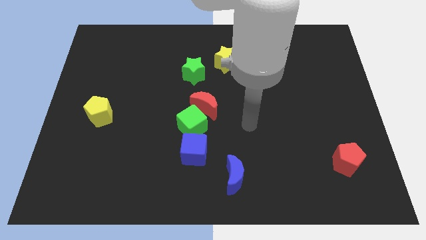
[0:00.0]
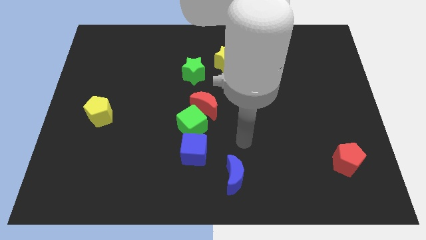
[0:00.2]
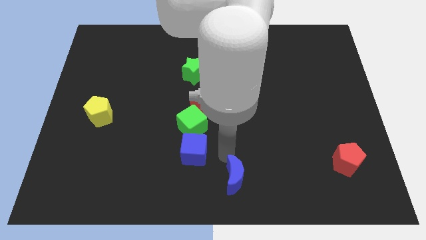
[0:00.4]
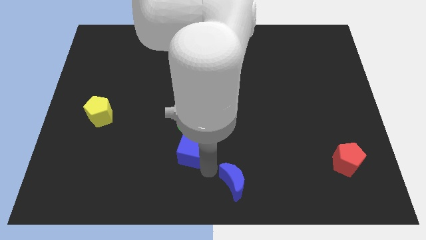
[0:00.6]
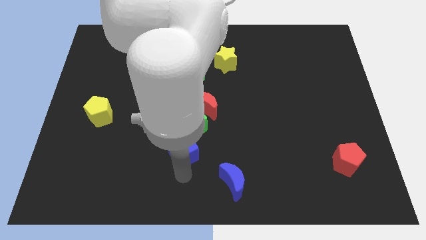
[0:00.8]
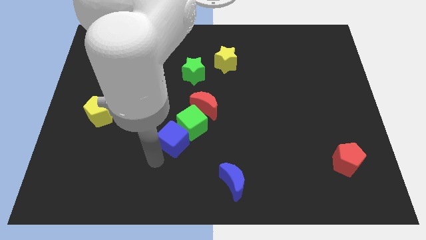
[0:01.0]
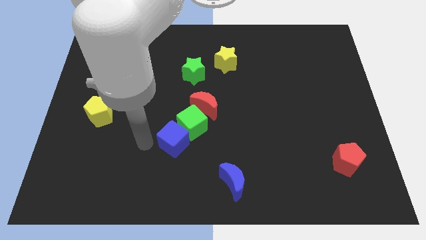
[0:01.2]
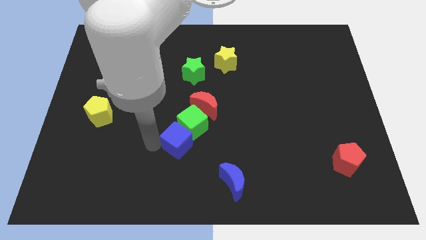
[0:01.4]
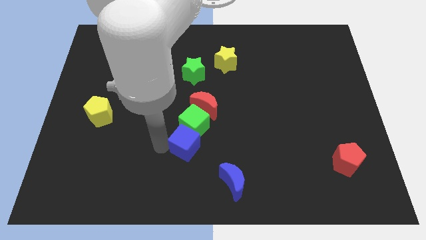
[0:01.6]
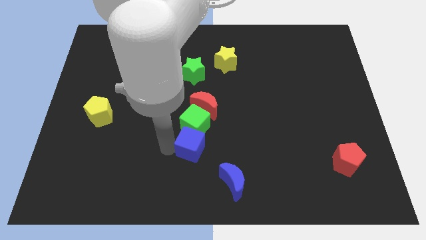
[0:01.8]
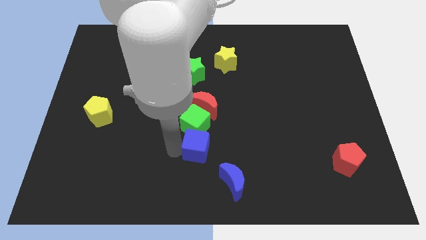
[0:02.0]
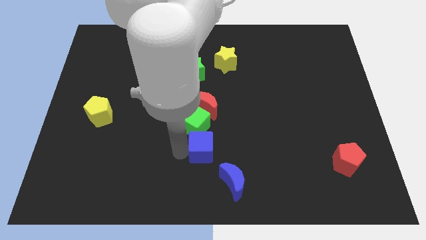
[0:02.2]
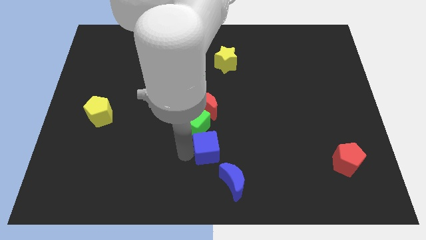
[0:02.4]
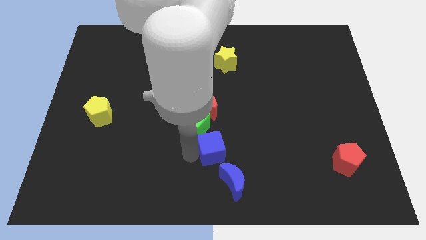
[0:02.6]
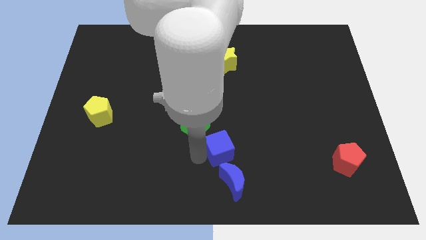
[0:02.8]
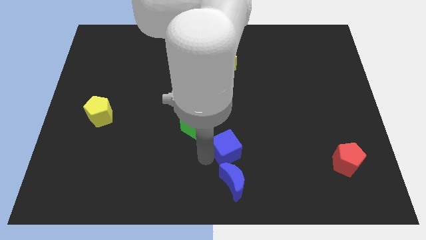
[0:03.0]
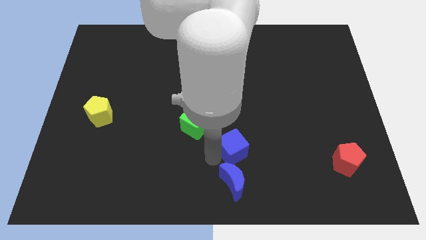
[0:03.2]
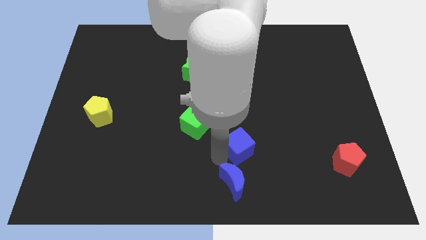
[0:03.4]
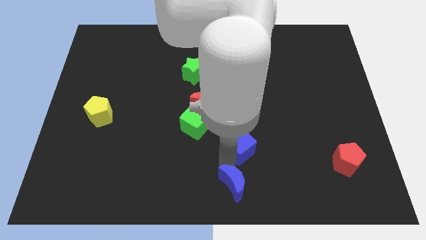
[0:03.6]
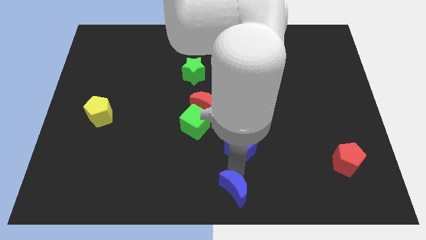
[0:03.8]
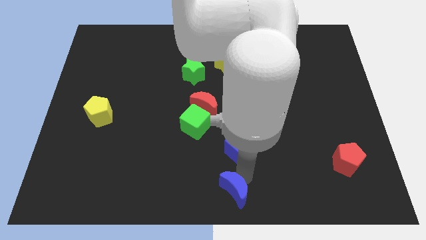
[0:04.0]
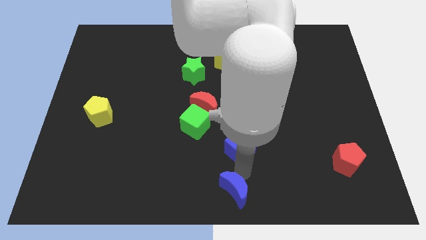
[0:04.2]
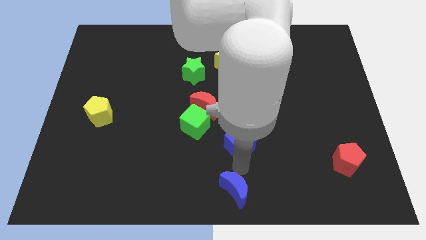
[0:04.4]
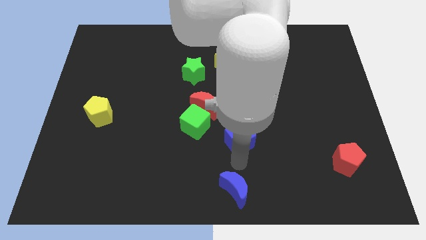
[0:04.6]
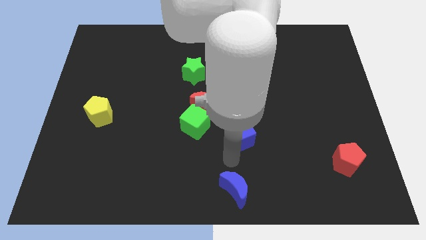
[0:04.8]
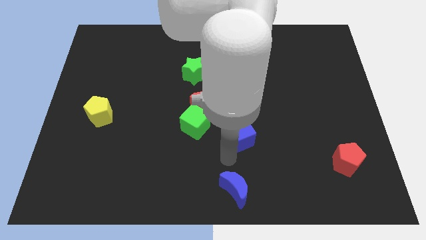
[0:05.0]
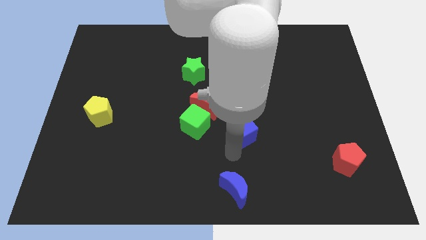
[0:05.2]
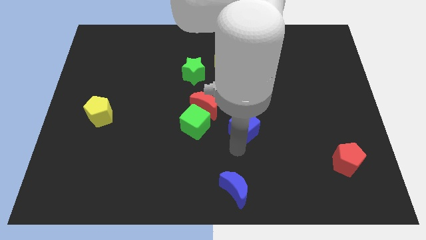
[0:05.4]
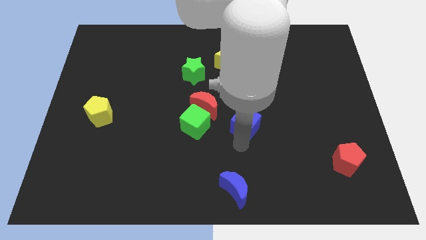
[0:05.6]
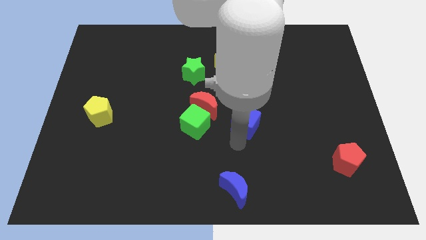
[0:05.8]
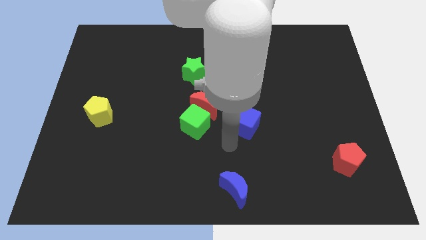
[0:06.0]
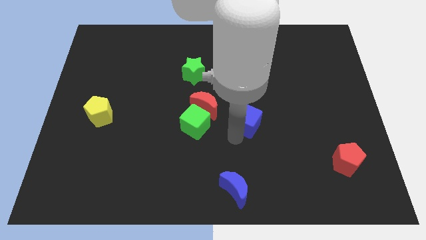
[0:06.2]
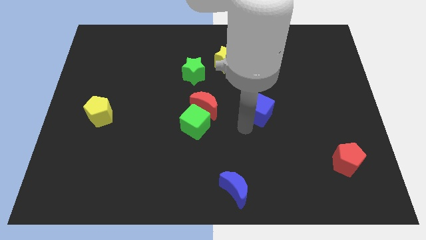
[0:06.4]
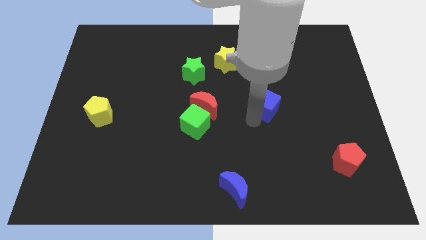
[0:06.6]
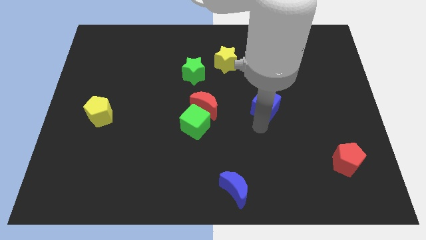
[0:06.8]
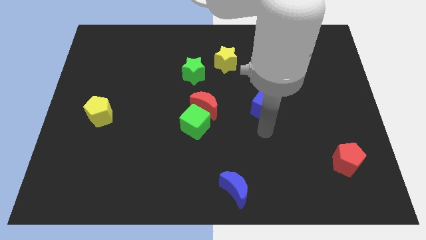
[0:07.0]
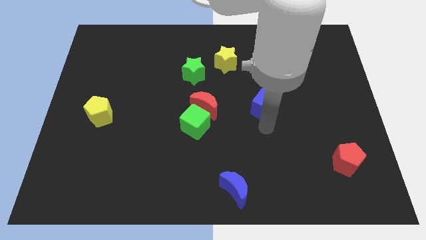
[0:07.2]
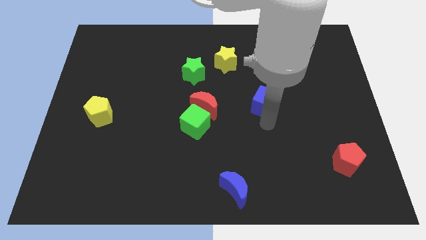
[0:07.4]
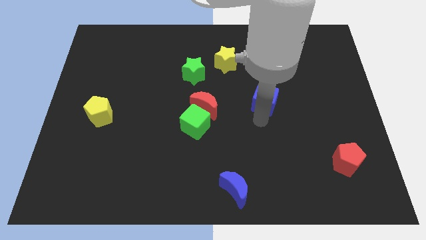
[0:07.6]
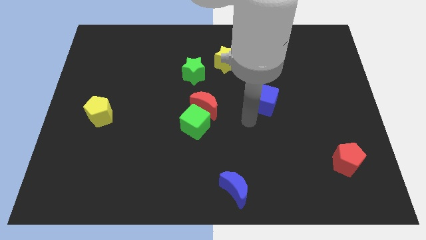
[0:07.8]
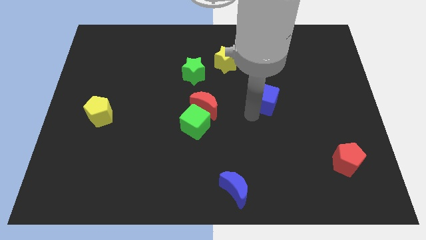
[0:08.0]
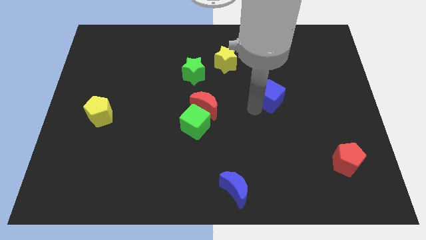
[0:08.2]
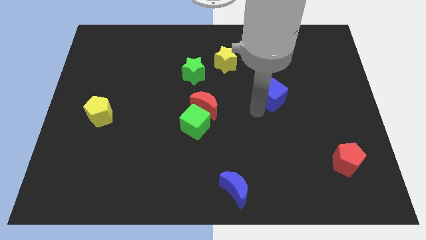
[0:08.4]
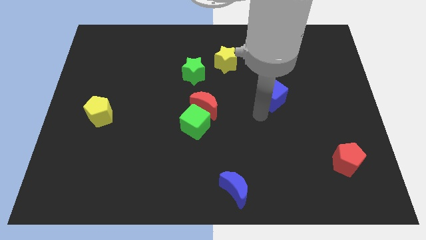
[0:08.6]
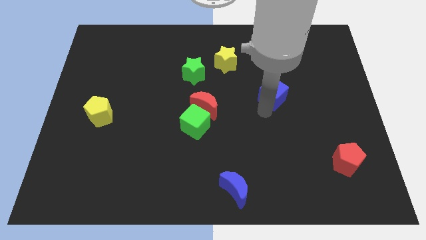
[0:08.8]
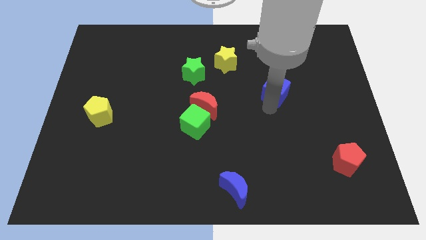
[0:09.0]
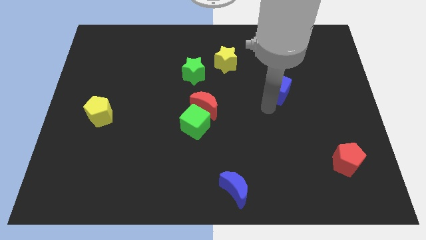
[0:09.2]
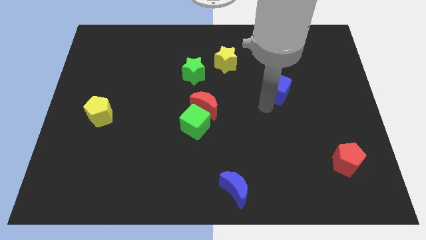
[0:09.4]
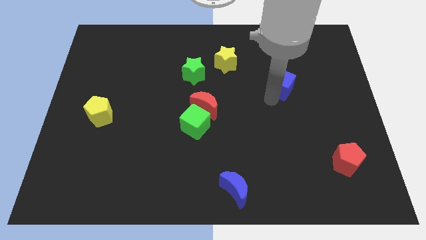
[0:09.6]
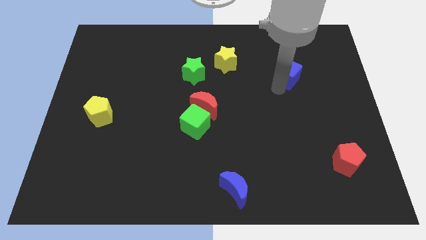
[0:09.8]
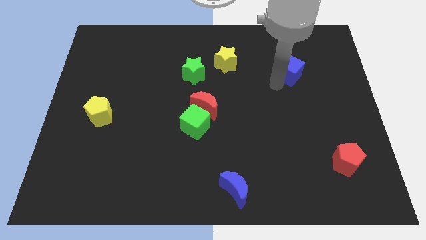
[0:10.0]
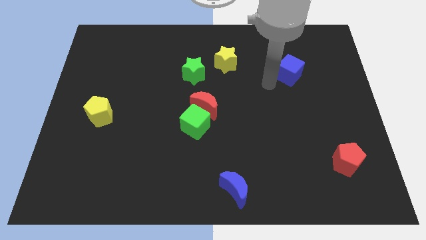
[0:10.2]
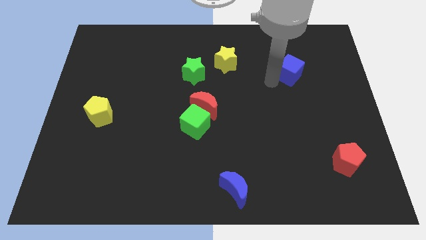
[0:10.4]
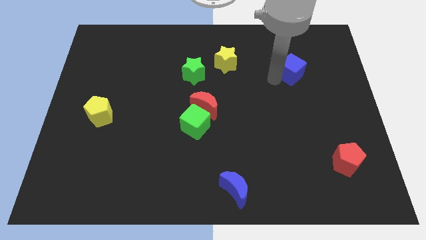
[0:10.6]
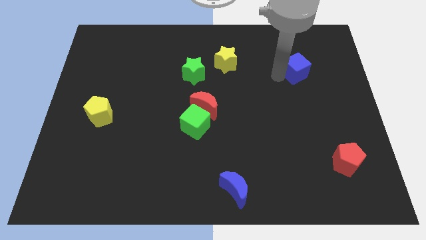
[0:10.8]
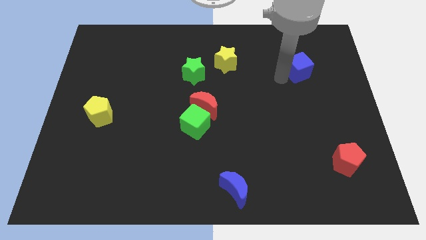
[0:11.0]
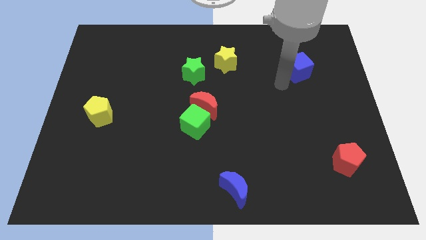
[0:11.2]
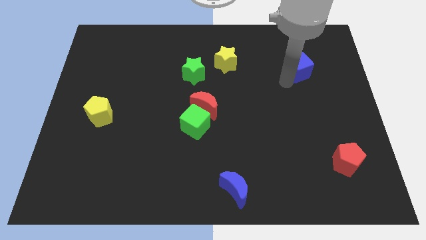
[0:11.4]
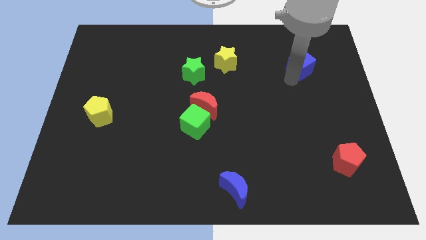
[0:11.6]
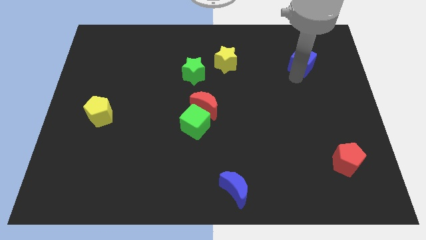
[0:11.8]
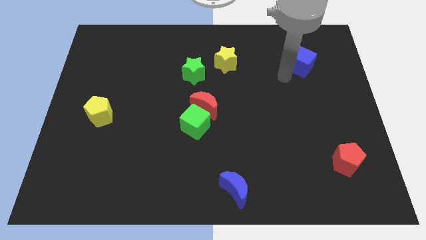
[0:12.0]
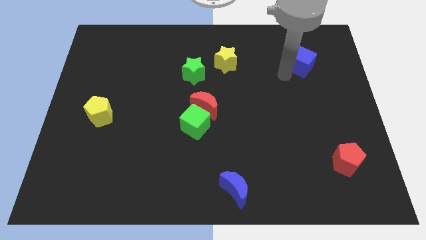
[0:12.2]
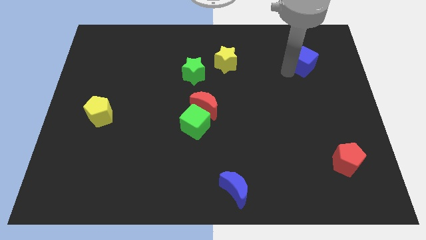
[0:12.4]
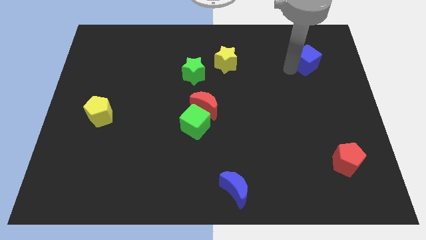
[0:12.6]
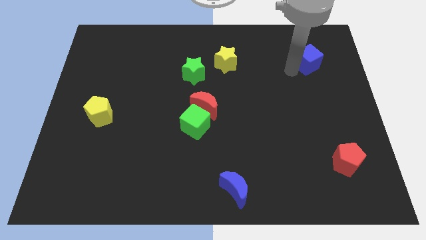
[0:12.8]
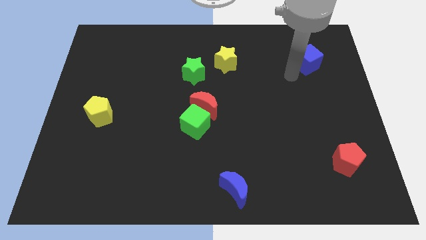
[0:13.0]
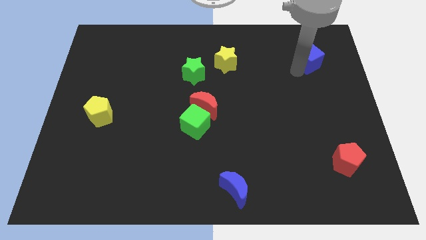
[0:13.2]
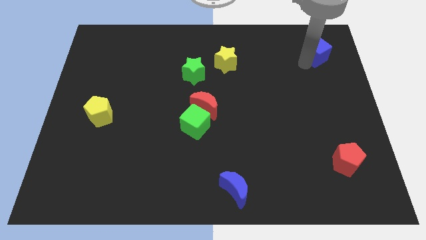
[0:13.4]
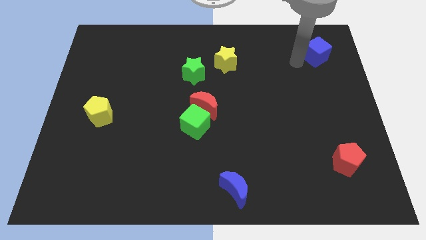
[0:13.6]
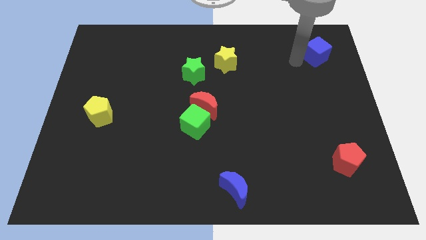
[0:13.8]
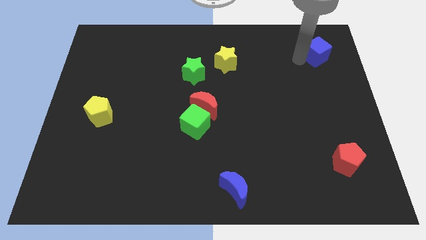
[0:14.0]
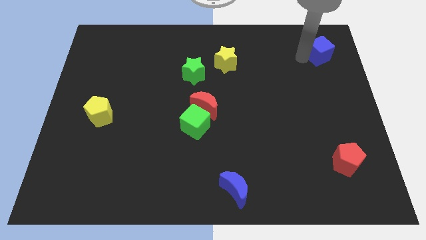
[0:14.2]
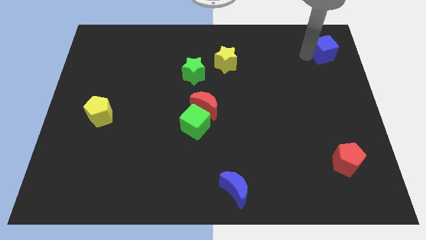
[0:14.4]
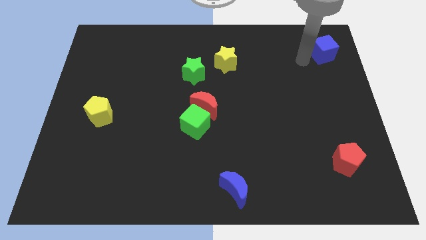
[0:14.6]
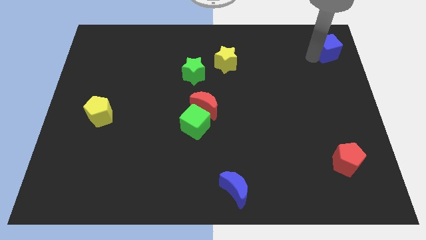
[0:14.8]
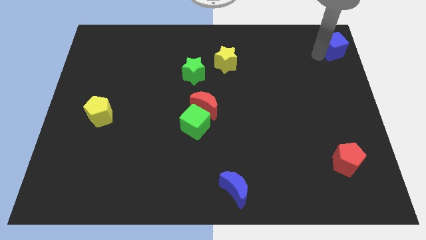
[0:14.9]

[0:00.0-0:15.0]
slide the blue cube to the top right corner
